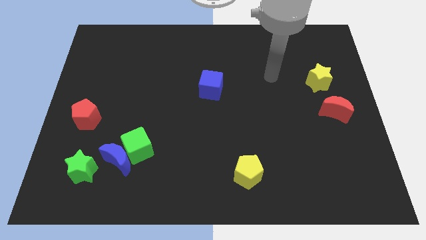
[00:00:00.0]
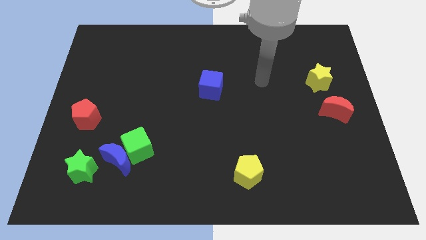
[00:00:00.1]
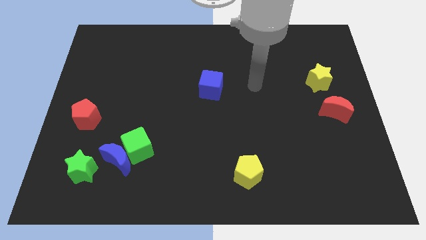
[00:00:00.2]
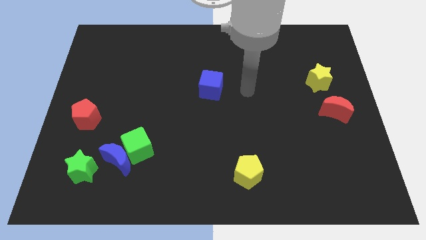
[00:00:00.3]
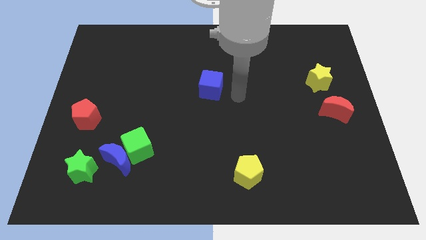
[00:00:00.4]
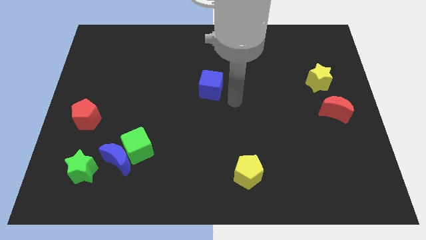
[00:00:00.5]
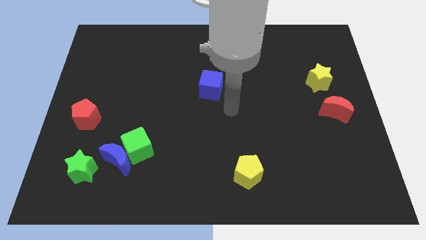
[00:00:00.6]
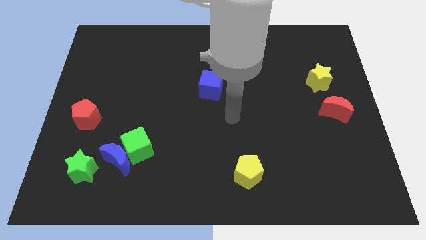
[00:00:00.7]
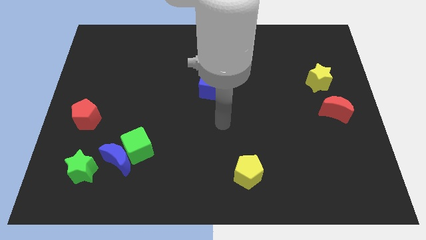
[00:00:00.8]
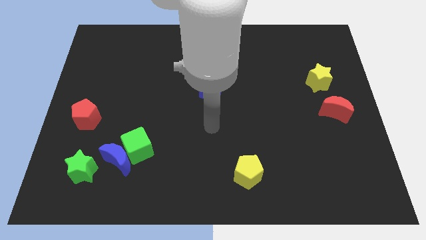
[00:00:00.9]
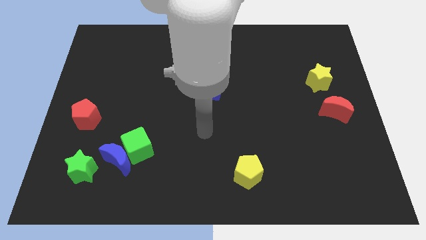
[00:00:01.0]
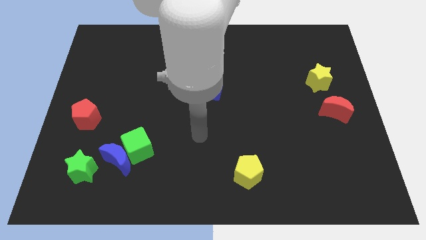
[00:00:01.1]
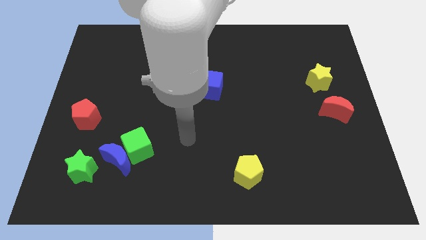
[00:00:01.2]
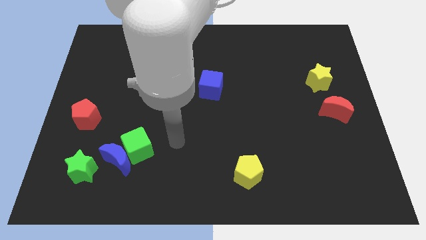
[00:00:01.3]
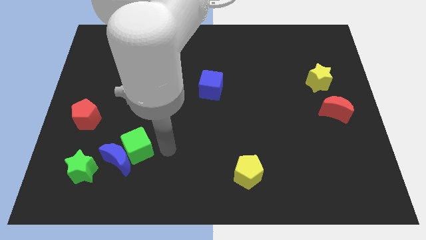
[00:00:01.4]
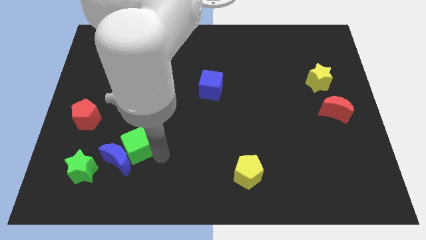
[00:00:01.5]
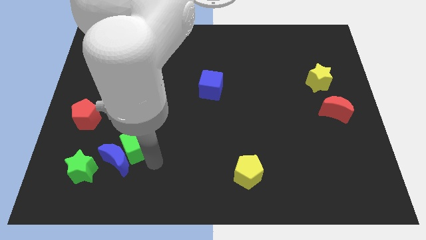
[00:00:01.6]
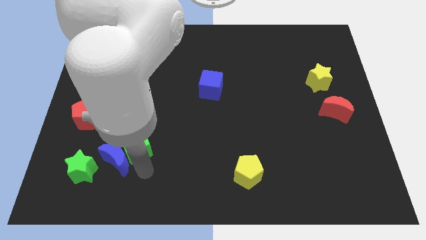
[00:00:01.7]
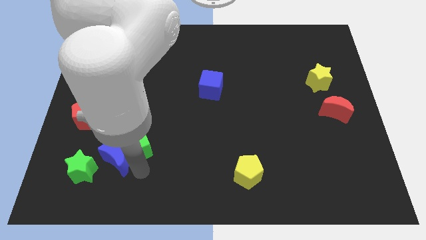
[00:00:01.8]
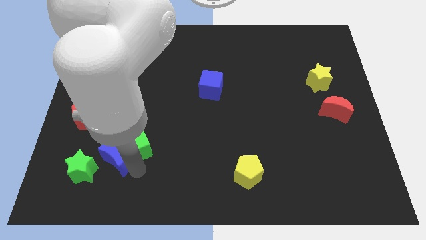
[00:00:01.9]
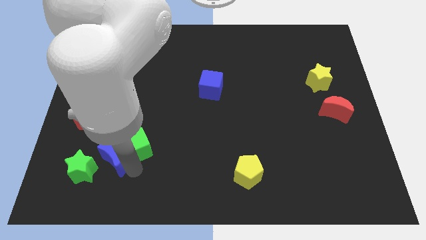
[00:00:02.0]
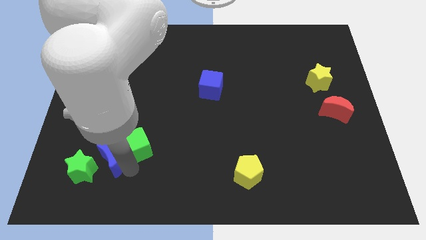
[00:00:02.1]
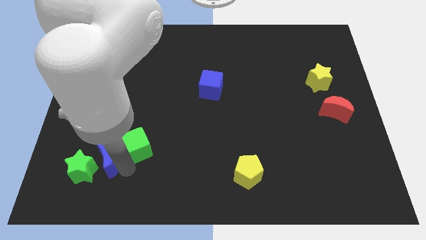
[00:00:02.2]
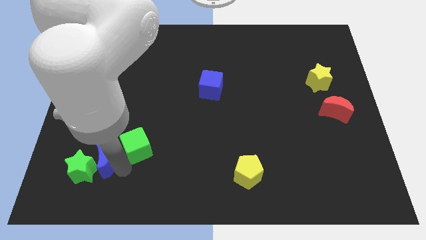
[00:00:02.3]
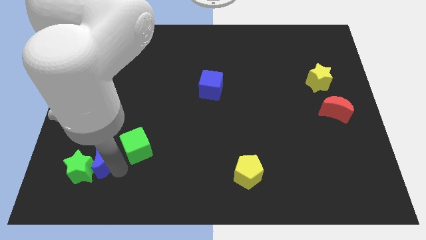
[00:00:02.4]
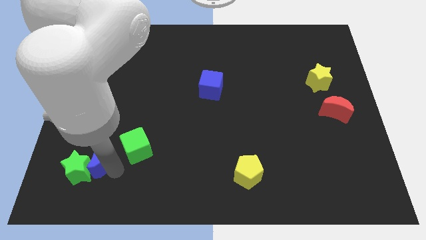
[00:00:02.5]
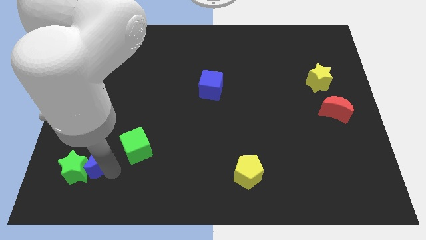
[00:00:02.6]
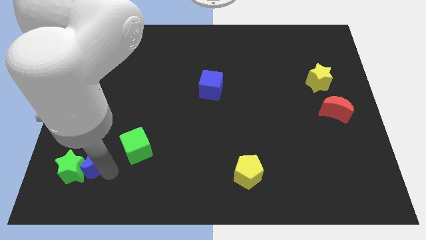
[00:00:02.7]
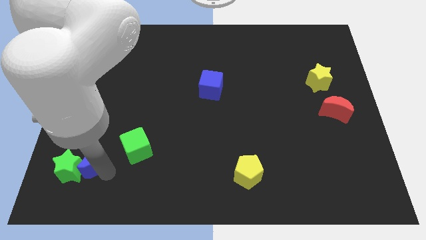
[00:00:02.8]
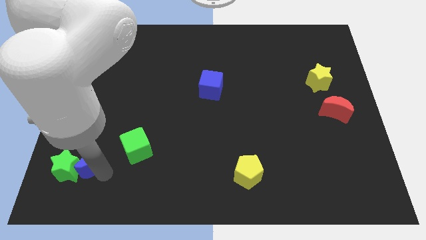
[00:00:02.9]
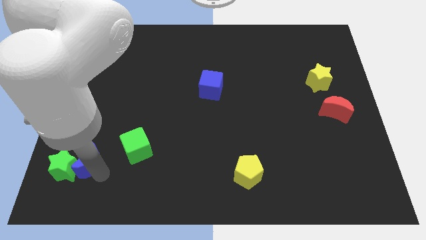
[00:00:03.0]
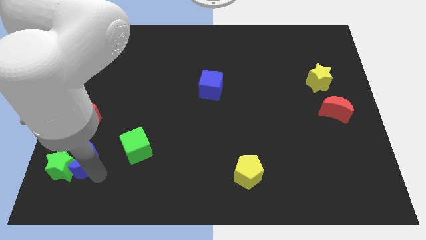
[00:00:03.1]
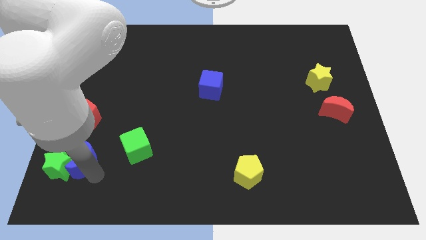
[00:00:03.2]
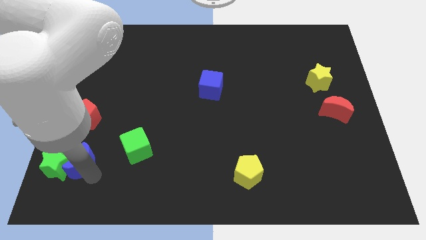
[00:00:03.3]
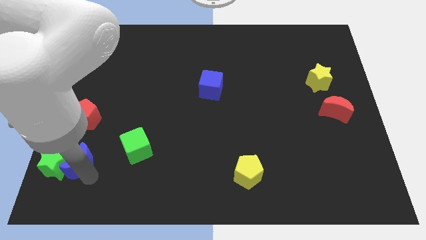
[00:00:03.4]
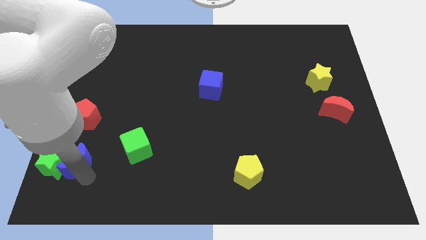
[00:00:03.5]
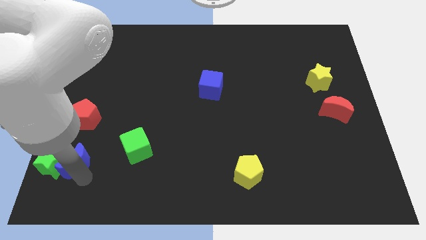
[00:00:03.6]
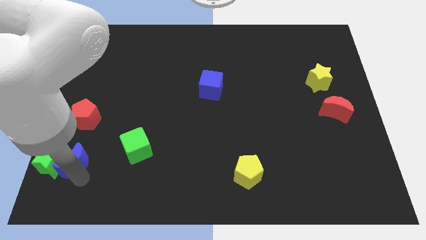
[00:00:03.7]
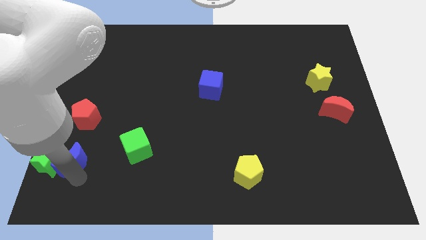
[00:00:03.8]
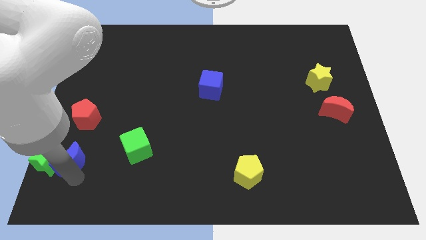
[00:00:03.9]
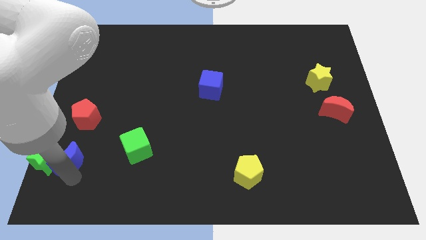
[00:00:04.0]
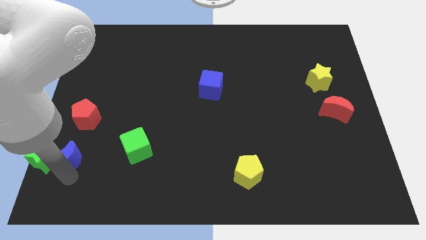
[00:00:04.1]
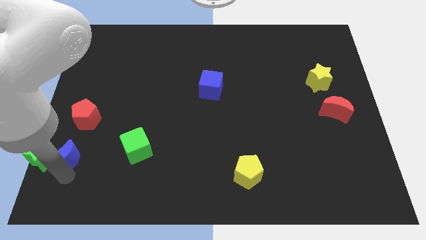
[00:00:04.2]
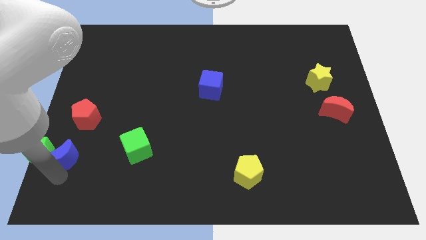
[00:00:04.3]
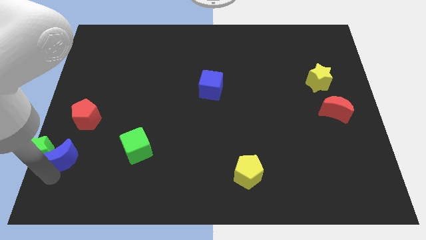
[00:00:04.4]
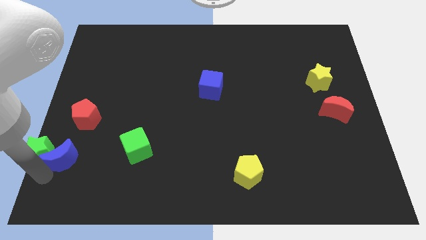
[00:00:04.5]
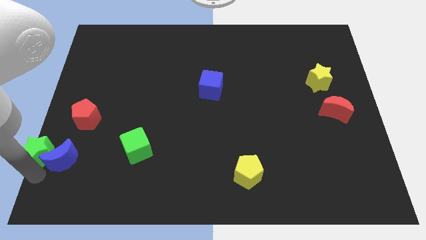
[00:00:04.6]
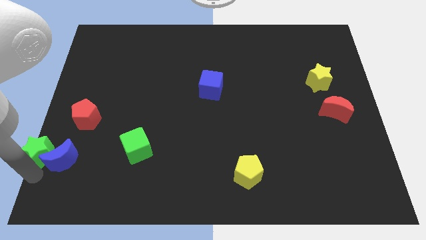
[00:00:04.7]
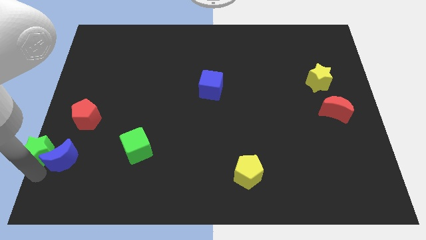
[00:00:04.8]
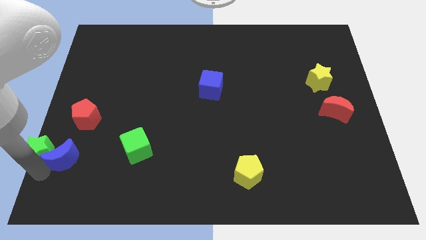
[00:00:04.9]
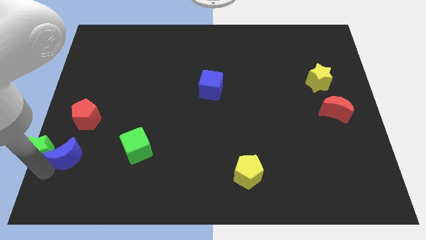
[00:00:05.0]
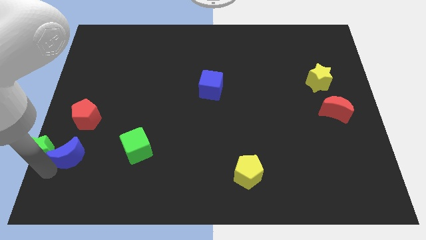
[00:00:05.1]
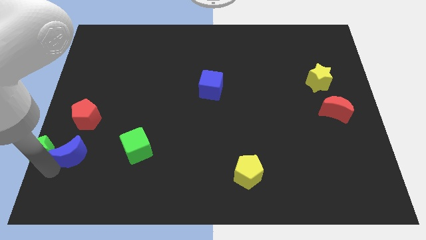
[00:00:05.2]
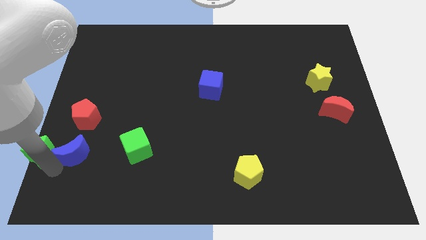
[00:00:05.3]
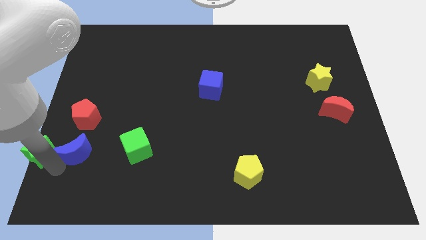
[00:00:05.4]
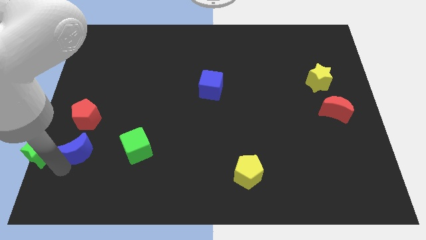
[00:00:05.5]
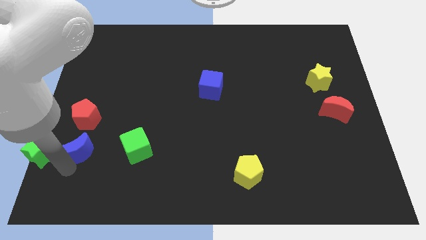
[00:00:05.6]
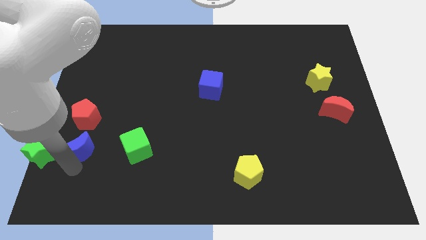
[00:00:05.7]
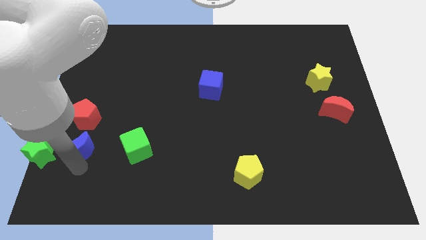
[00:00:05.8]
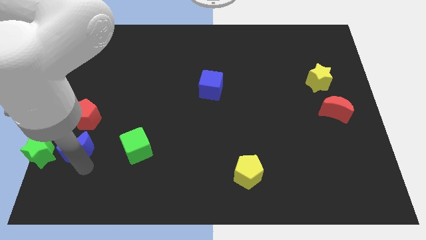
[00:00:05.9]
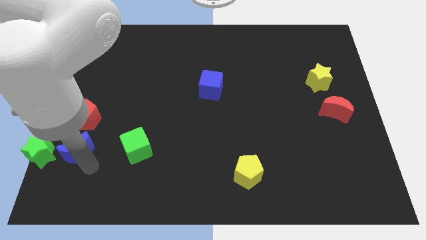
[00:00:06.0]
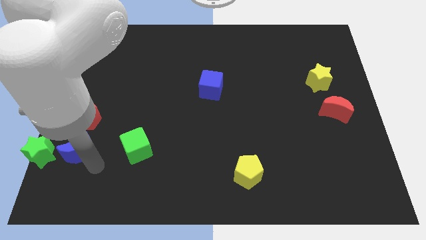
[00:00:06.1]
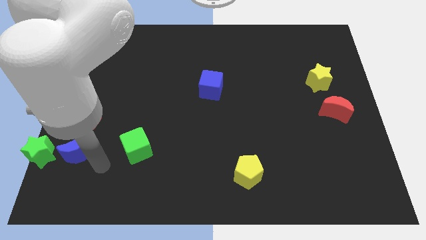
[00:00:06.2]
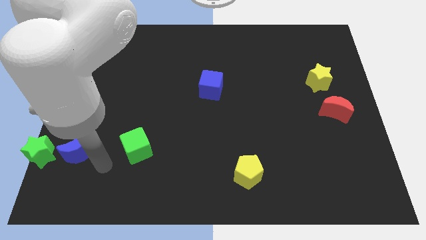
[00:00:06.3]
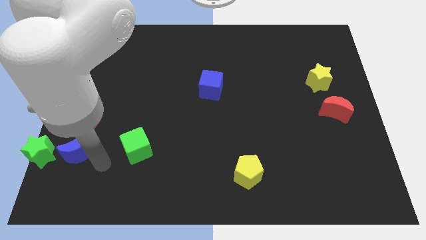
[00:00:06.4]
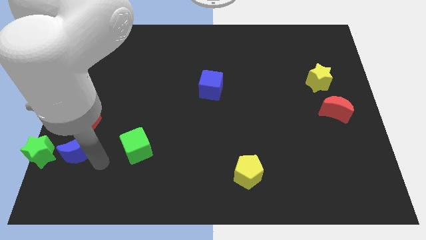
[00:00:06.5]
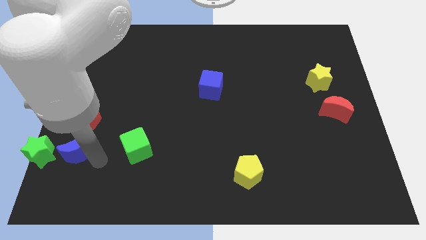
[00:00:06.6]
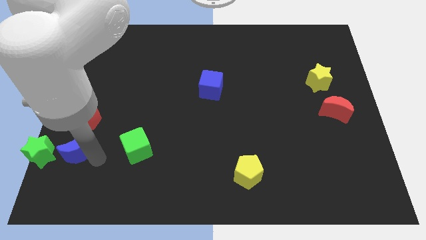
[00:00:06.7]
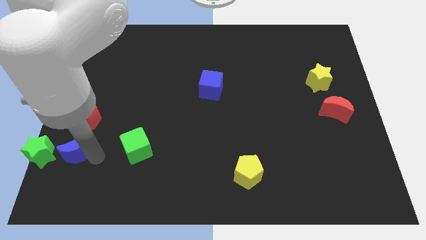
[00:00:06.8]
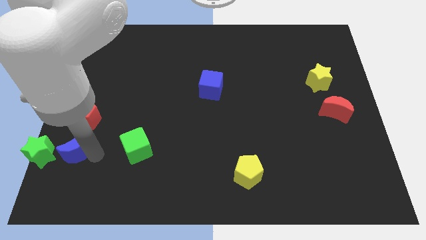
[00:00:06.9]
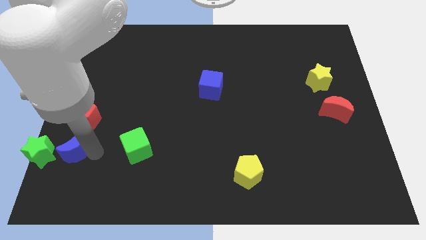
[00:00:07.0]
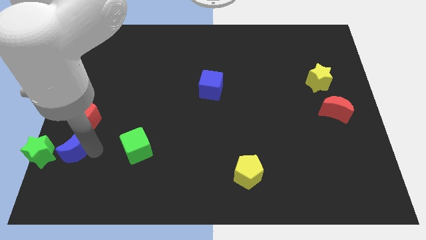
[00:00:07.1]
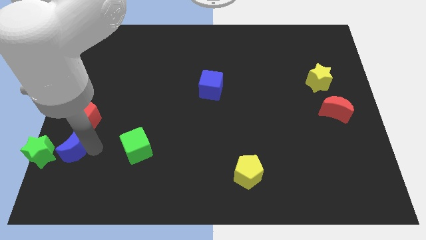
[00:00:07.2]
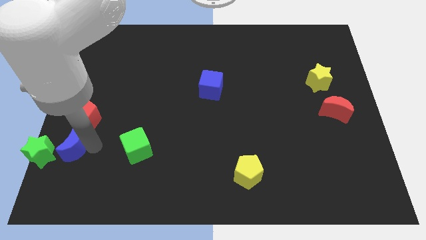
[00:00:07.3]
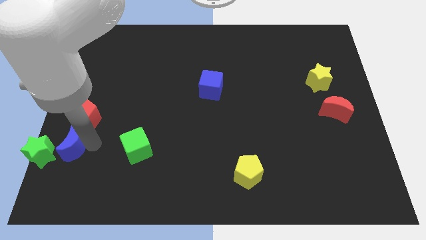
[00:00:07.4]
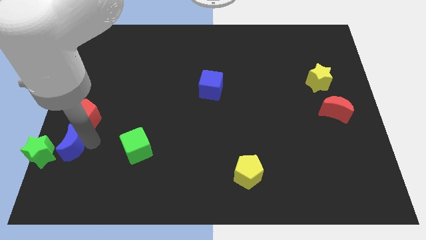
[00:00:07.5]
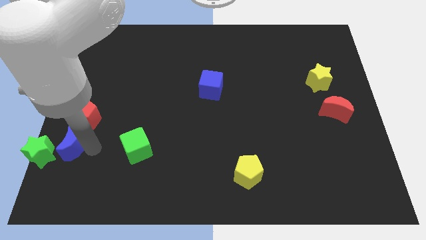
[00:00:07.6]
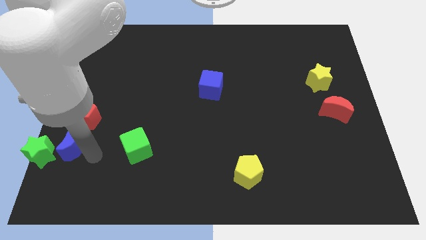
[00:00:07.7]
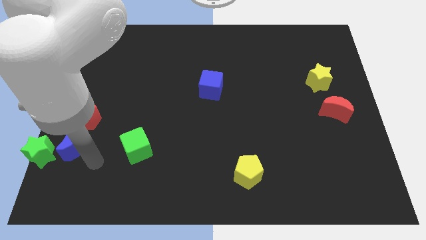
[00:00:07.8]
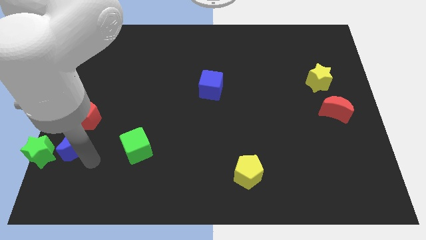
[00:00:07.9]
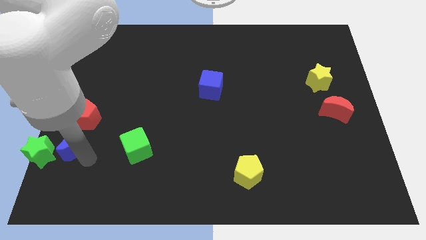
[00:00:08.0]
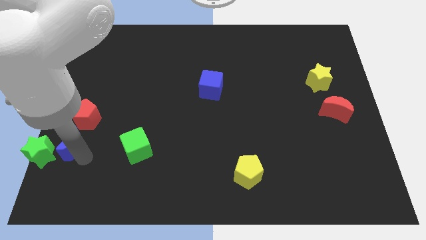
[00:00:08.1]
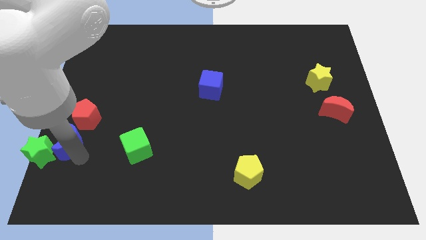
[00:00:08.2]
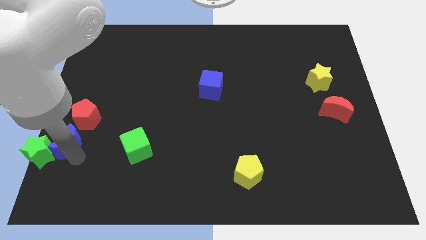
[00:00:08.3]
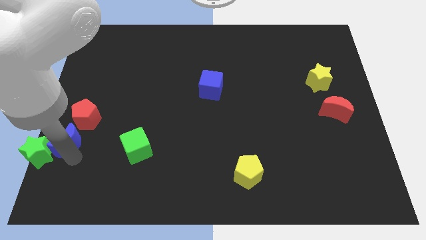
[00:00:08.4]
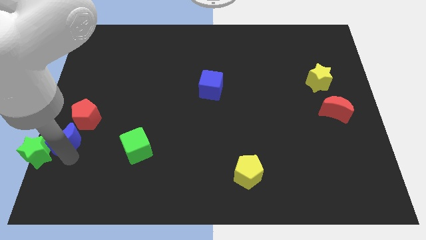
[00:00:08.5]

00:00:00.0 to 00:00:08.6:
slide the blue moon to the left side of the board
